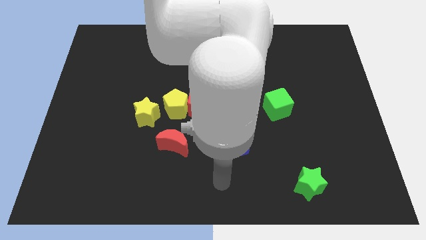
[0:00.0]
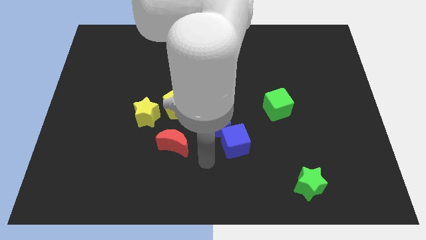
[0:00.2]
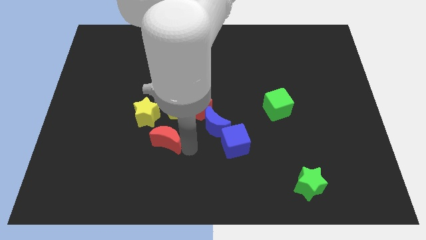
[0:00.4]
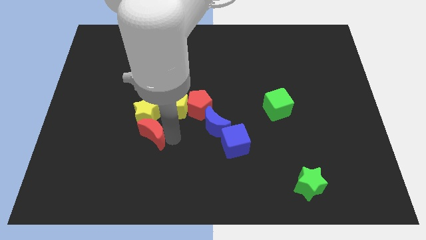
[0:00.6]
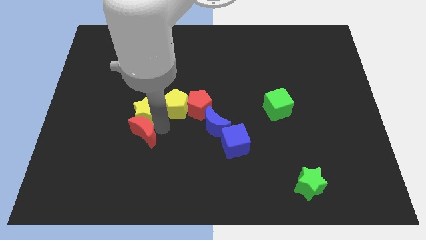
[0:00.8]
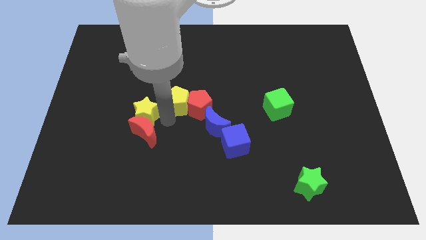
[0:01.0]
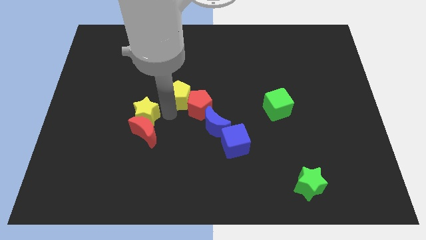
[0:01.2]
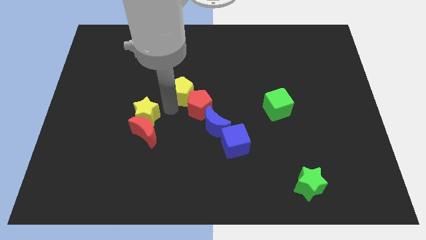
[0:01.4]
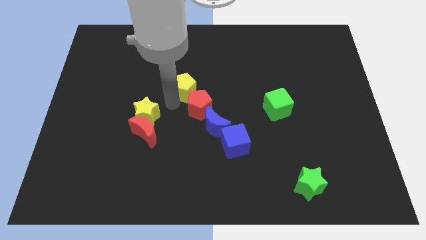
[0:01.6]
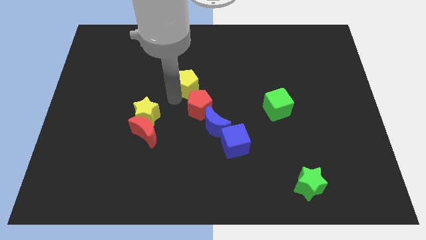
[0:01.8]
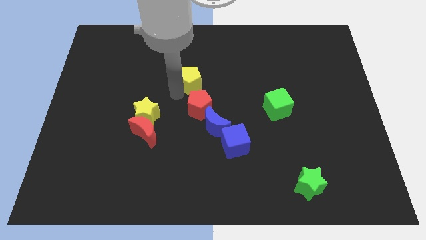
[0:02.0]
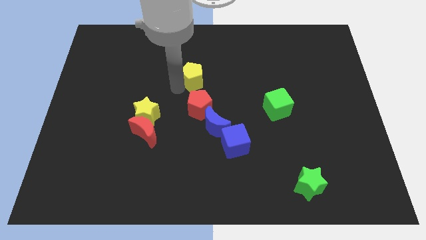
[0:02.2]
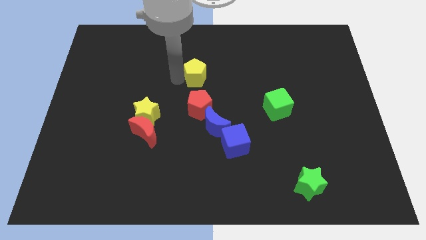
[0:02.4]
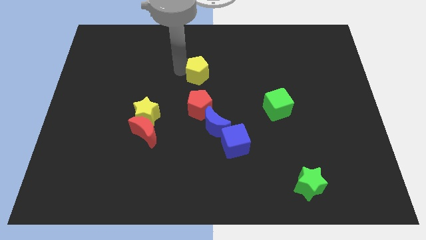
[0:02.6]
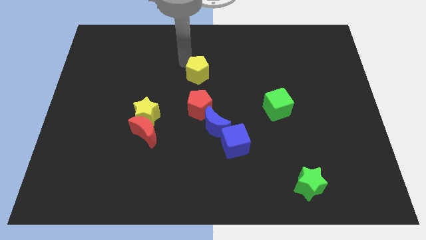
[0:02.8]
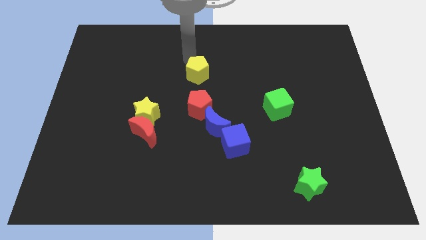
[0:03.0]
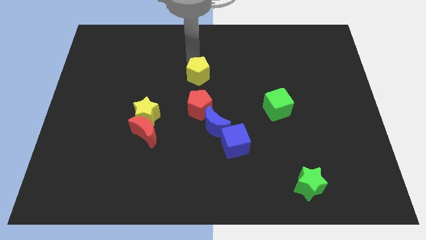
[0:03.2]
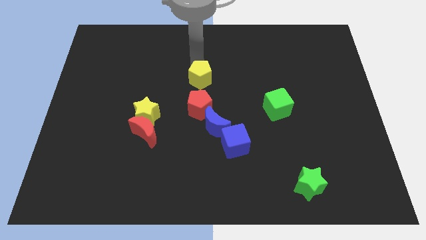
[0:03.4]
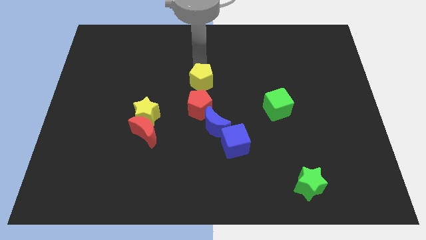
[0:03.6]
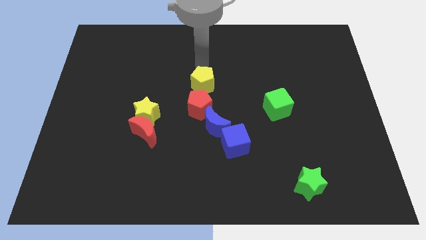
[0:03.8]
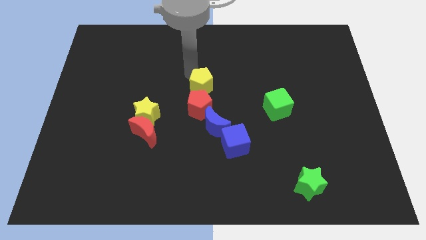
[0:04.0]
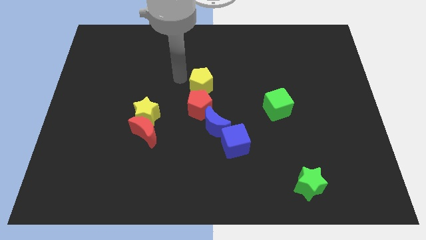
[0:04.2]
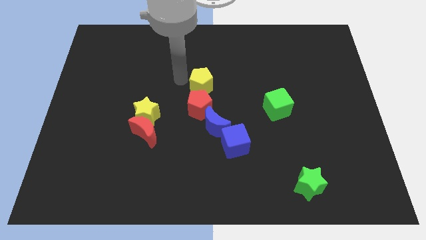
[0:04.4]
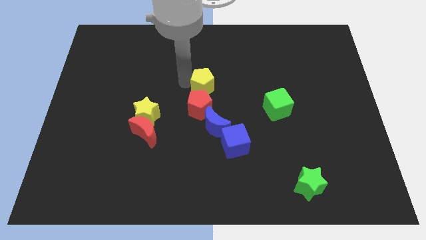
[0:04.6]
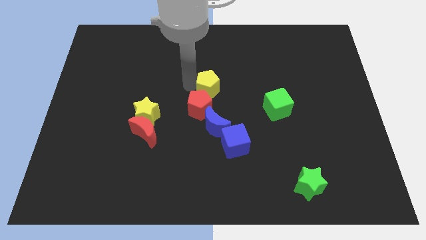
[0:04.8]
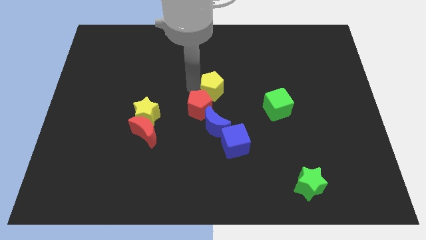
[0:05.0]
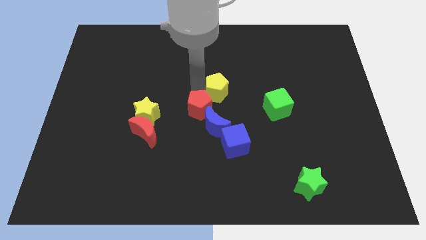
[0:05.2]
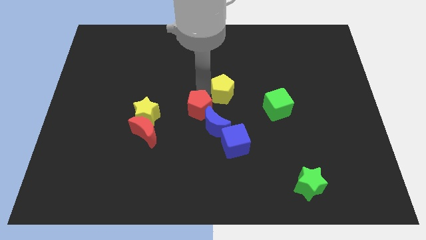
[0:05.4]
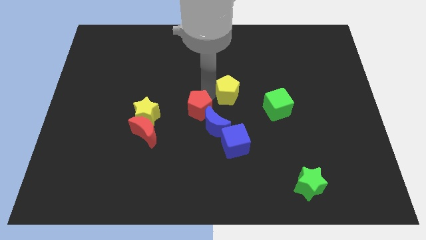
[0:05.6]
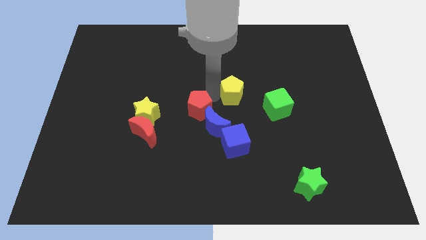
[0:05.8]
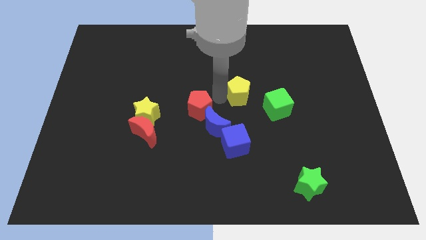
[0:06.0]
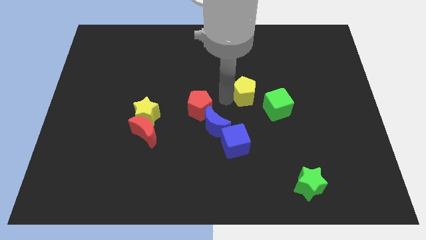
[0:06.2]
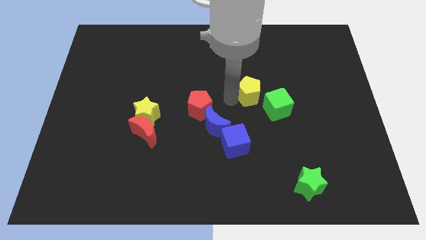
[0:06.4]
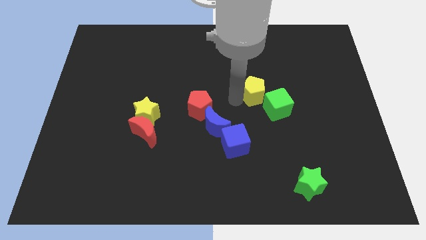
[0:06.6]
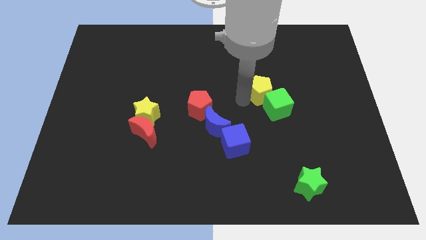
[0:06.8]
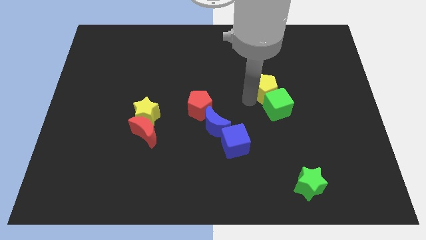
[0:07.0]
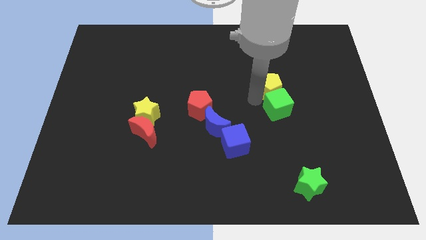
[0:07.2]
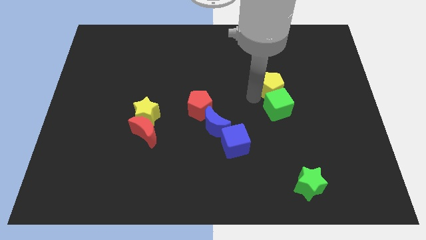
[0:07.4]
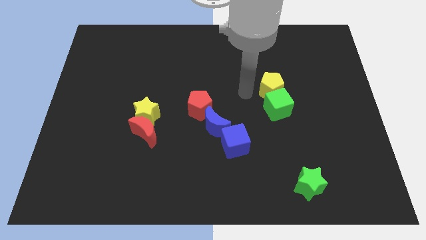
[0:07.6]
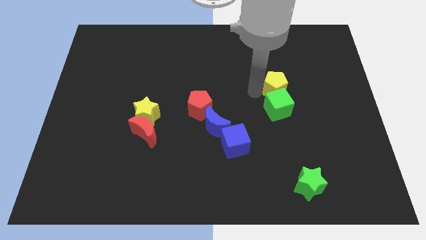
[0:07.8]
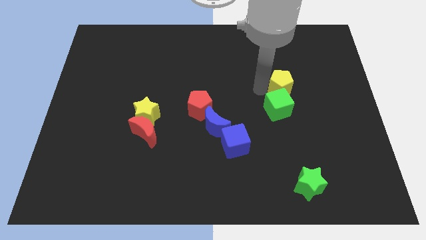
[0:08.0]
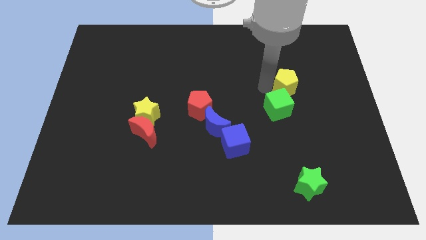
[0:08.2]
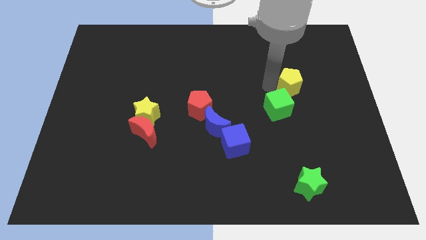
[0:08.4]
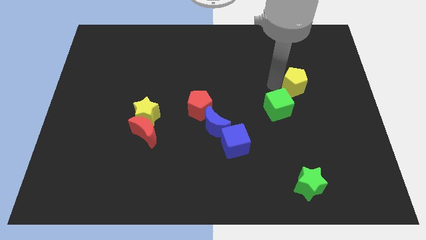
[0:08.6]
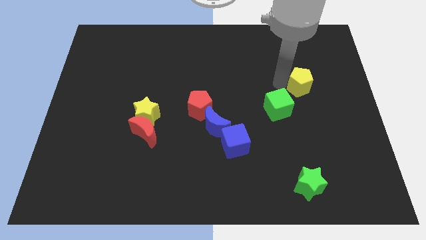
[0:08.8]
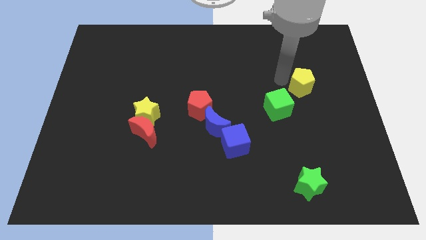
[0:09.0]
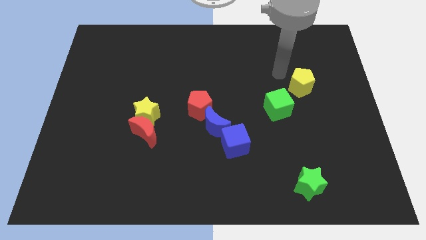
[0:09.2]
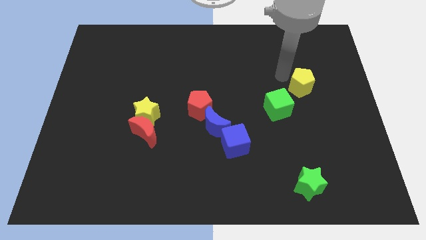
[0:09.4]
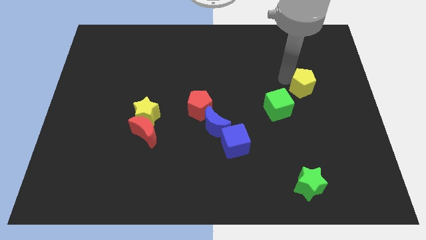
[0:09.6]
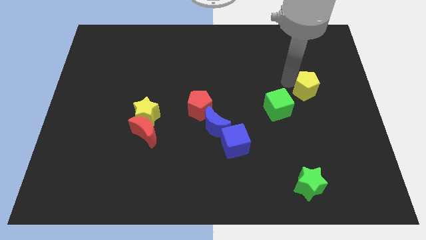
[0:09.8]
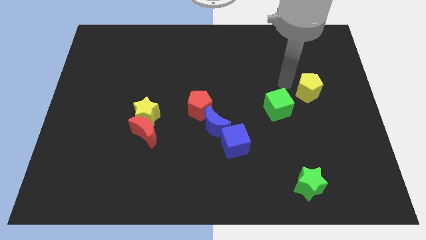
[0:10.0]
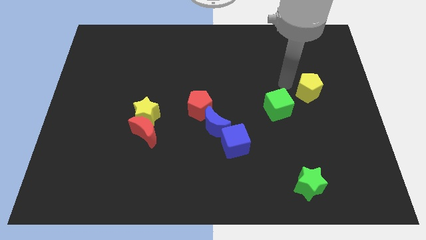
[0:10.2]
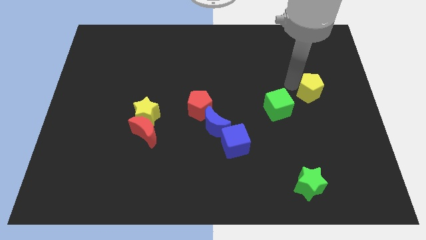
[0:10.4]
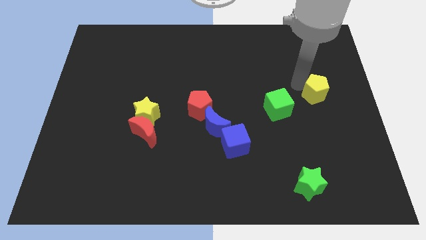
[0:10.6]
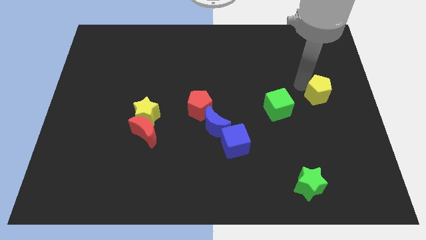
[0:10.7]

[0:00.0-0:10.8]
slide the yellow pentagon to the right side

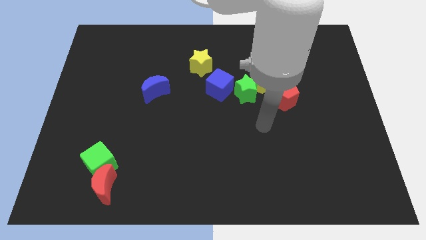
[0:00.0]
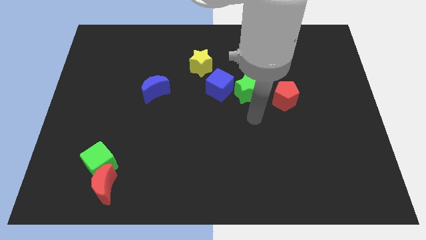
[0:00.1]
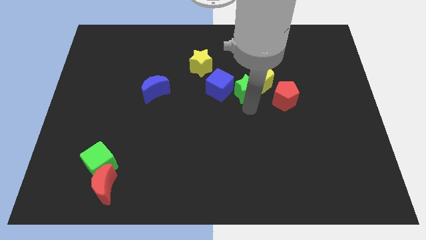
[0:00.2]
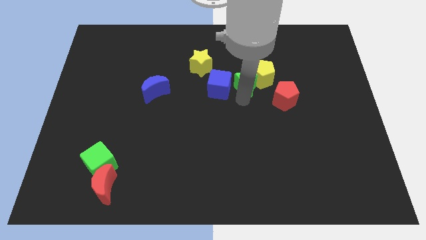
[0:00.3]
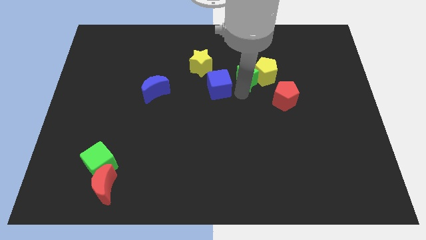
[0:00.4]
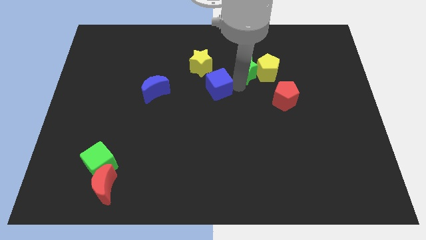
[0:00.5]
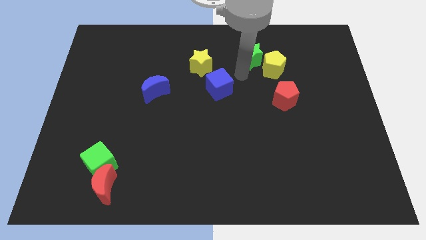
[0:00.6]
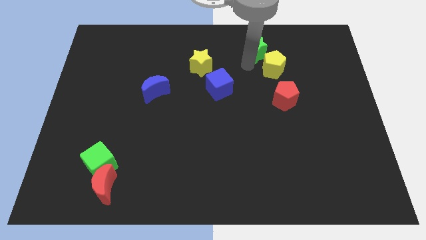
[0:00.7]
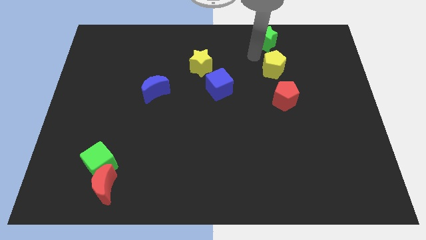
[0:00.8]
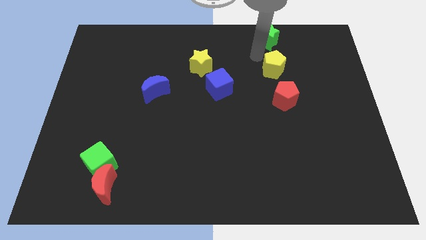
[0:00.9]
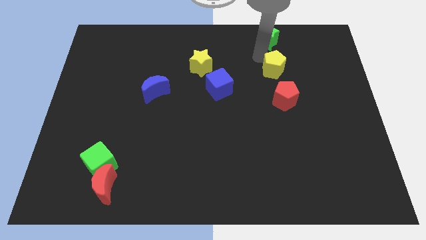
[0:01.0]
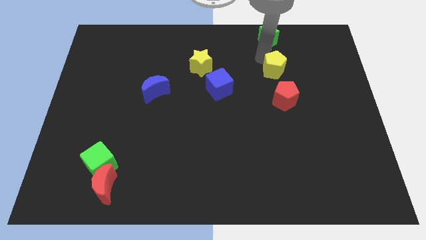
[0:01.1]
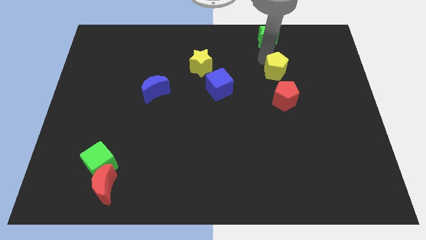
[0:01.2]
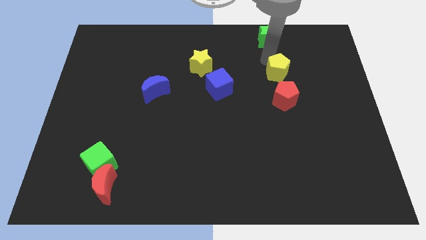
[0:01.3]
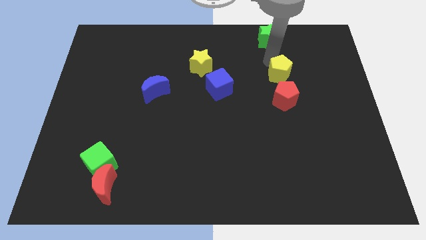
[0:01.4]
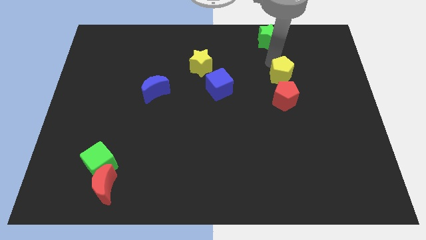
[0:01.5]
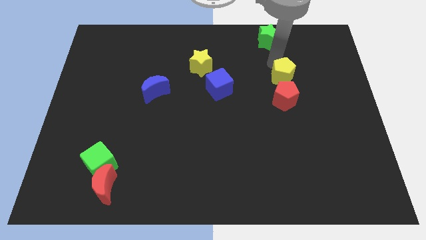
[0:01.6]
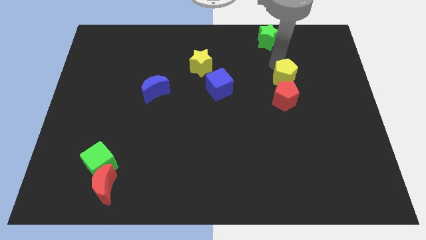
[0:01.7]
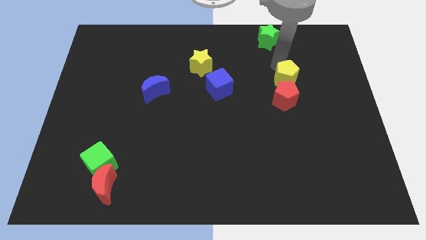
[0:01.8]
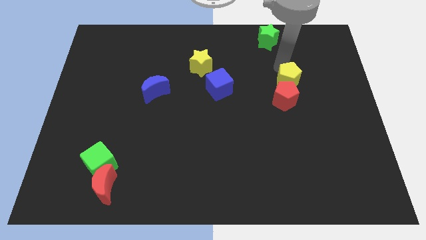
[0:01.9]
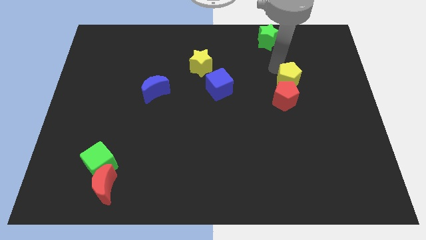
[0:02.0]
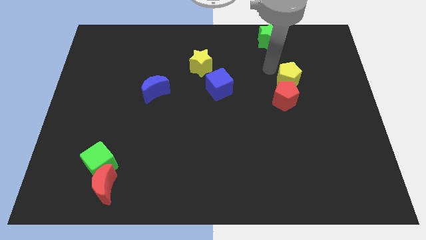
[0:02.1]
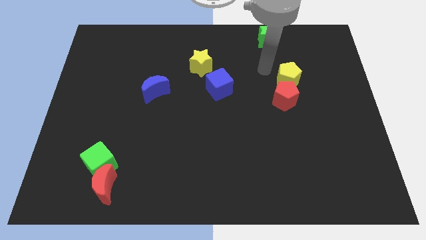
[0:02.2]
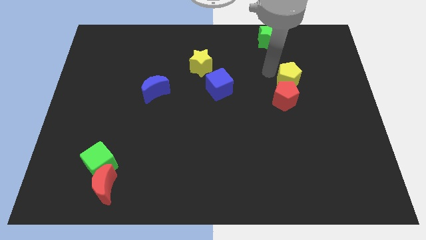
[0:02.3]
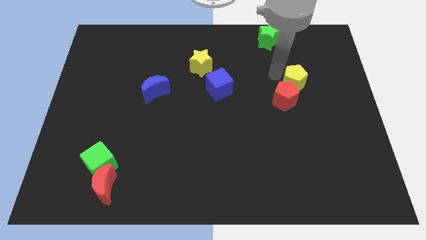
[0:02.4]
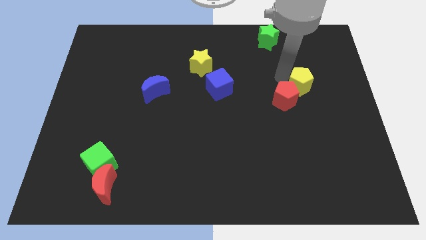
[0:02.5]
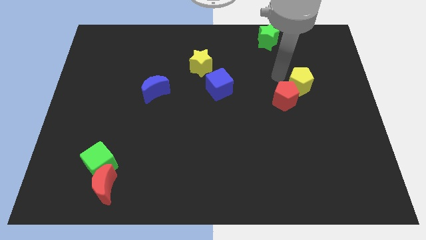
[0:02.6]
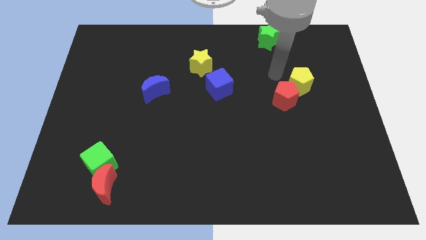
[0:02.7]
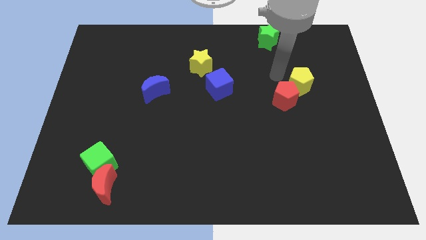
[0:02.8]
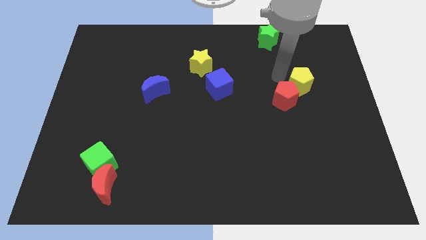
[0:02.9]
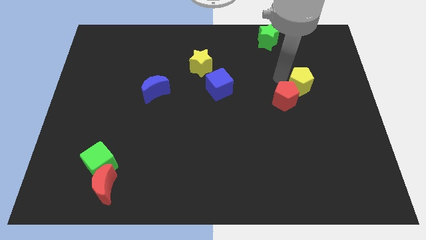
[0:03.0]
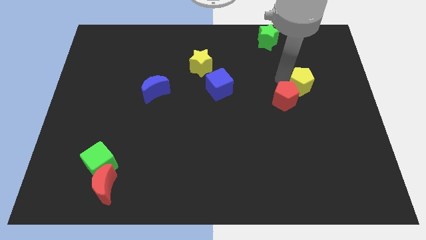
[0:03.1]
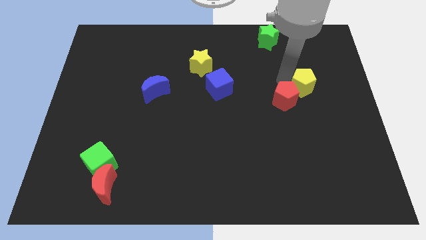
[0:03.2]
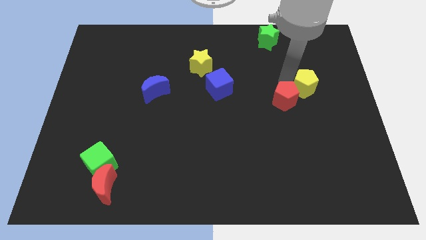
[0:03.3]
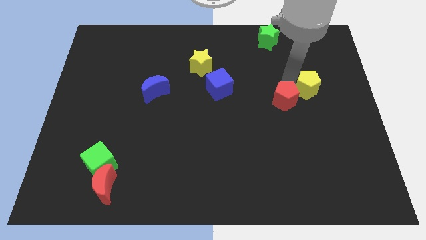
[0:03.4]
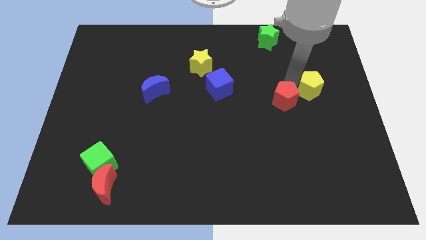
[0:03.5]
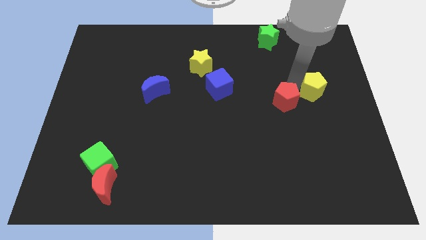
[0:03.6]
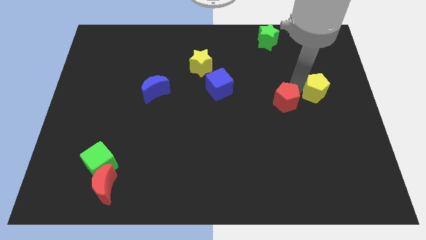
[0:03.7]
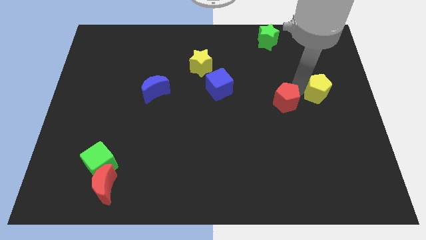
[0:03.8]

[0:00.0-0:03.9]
slide the yellow pentagon to the center right
